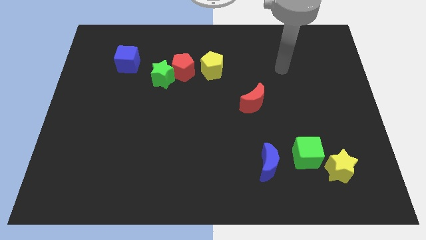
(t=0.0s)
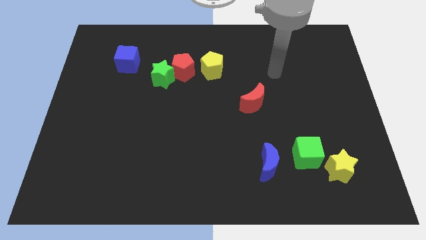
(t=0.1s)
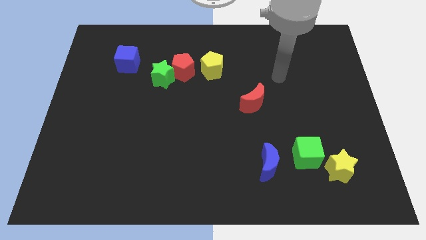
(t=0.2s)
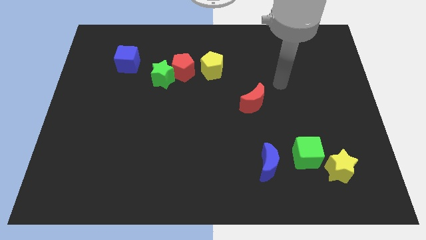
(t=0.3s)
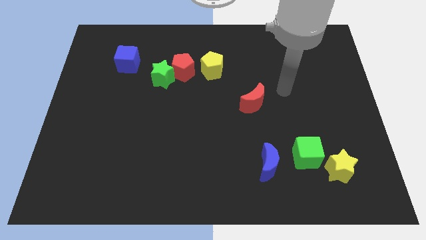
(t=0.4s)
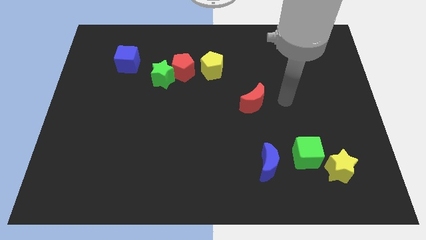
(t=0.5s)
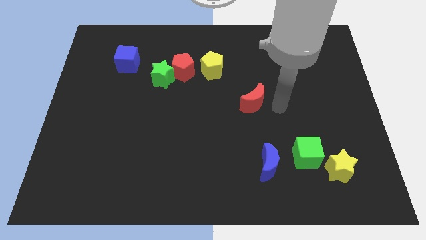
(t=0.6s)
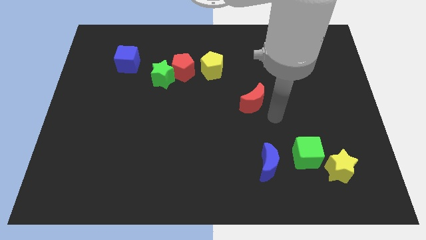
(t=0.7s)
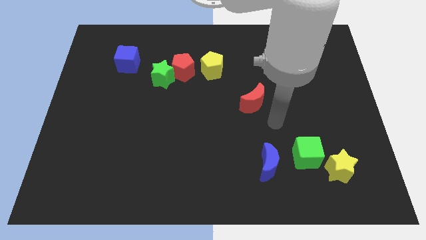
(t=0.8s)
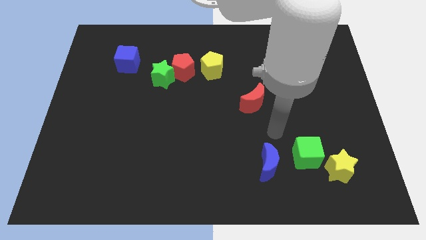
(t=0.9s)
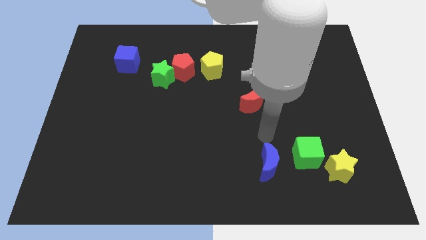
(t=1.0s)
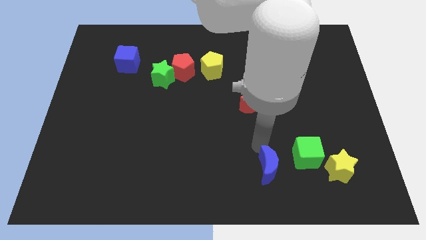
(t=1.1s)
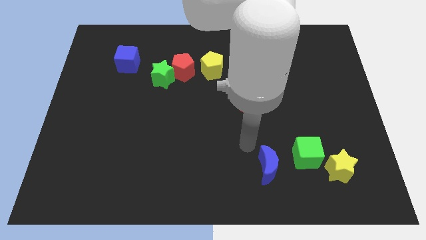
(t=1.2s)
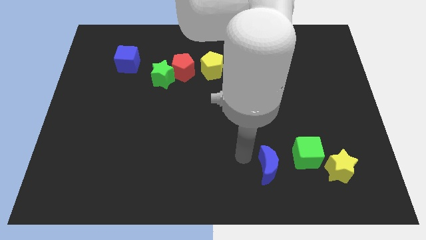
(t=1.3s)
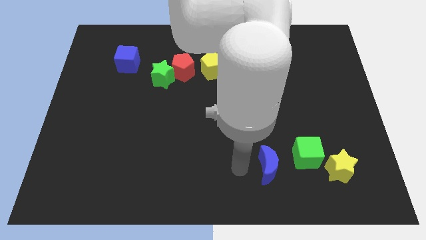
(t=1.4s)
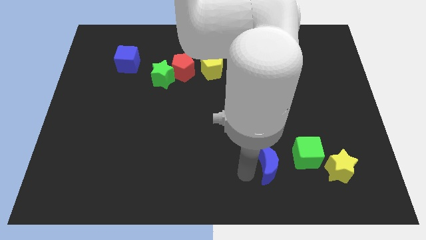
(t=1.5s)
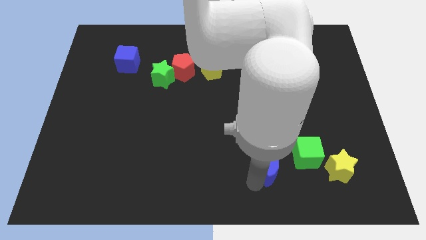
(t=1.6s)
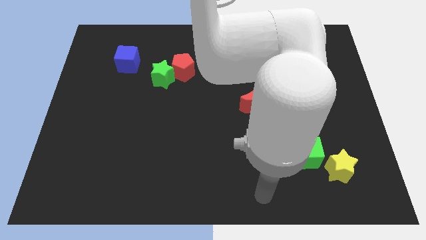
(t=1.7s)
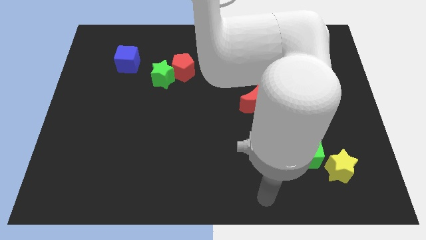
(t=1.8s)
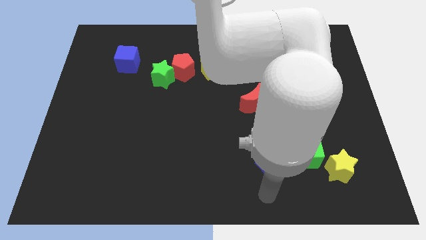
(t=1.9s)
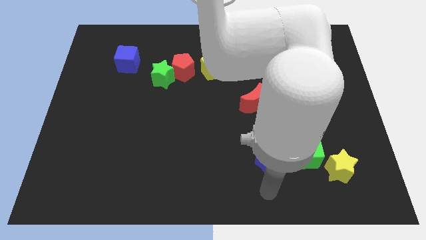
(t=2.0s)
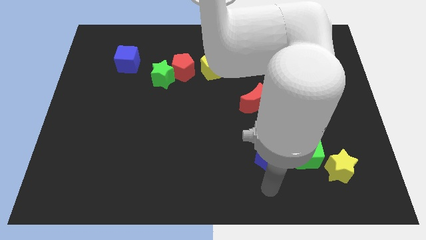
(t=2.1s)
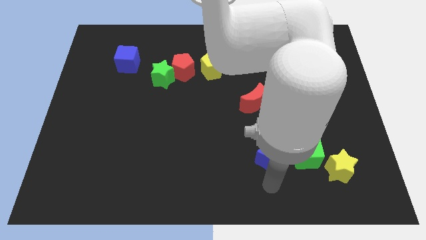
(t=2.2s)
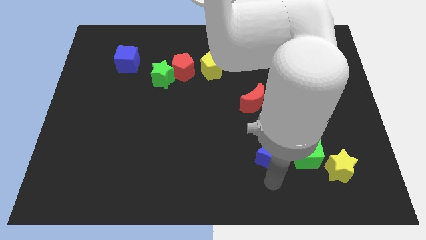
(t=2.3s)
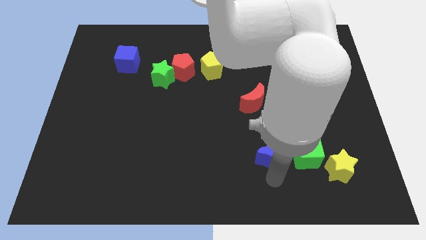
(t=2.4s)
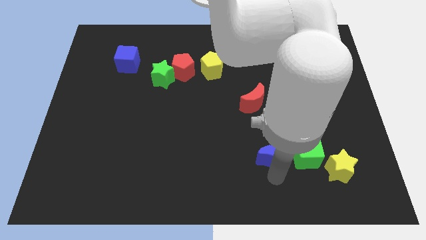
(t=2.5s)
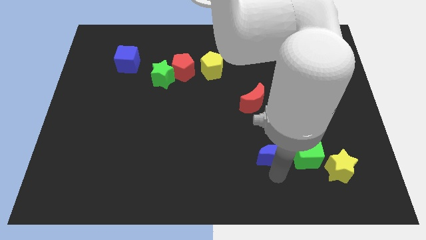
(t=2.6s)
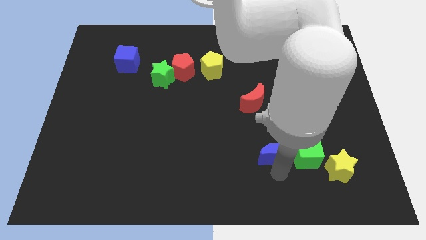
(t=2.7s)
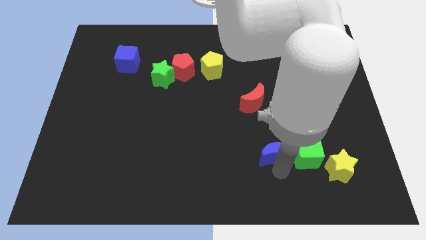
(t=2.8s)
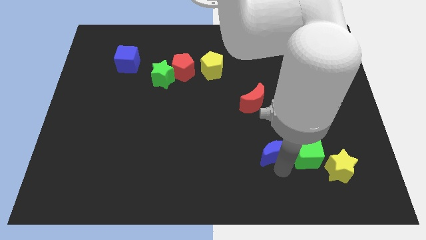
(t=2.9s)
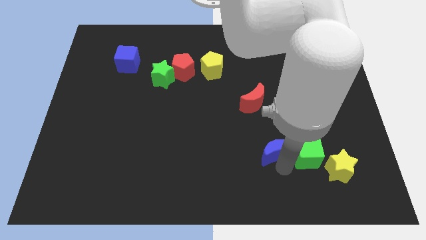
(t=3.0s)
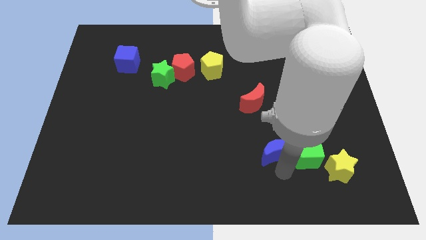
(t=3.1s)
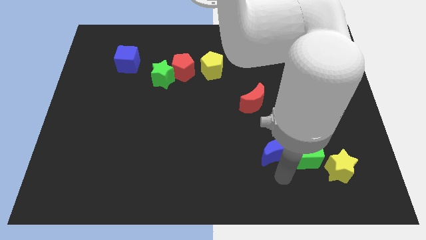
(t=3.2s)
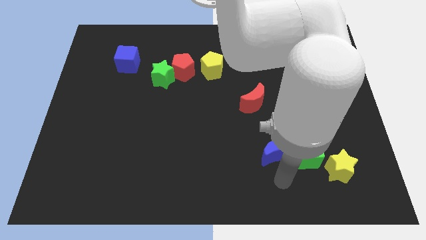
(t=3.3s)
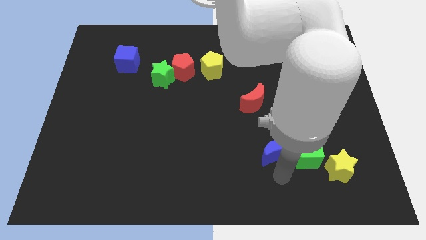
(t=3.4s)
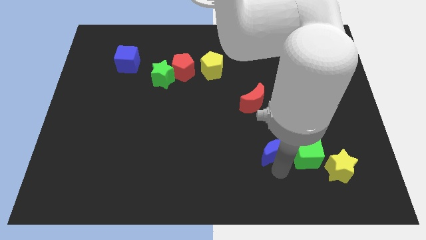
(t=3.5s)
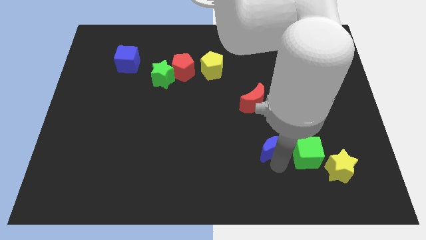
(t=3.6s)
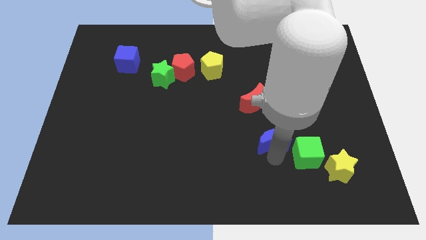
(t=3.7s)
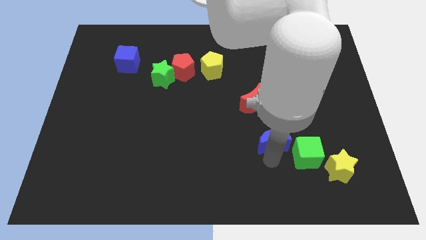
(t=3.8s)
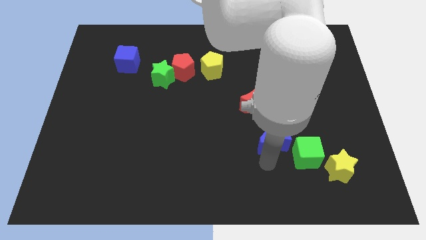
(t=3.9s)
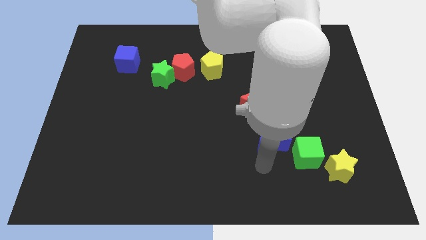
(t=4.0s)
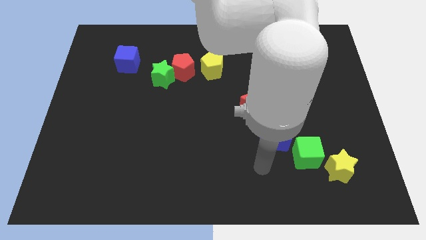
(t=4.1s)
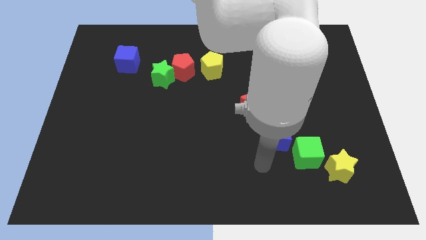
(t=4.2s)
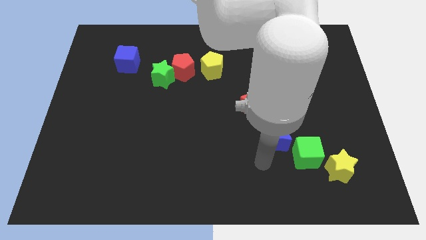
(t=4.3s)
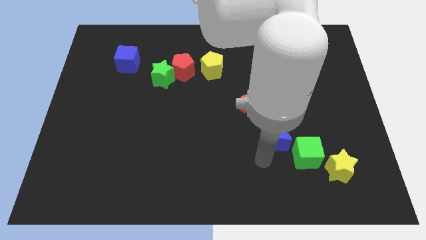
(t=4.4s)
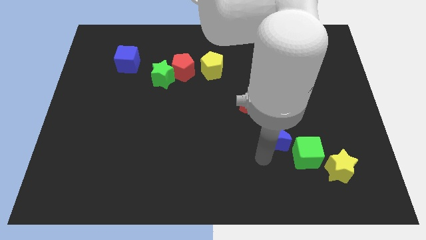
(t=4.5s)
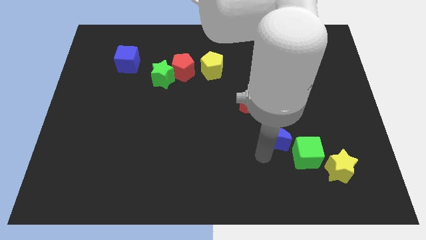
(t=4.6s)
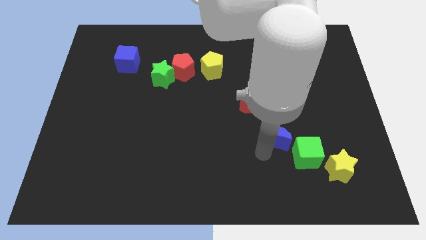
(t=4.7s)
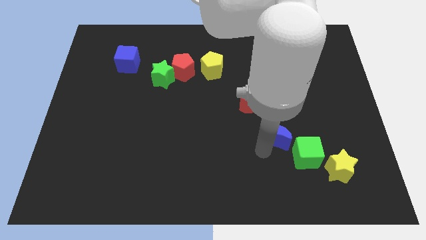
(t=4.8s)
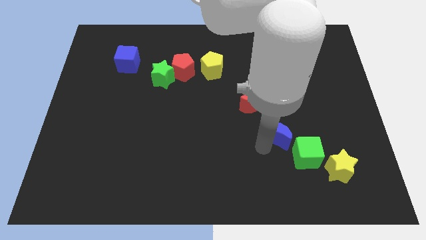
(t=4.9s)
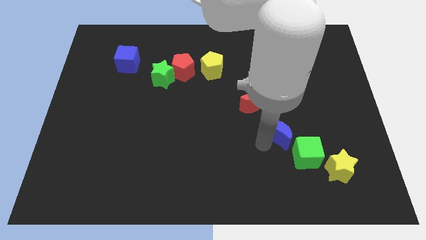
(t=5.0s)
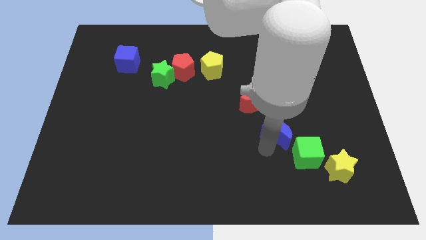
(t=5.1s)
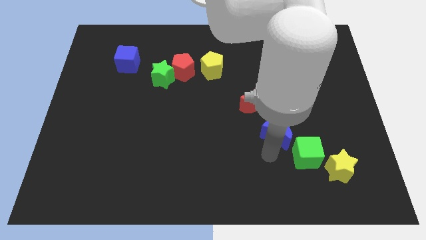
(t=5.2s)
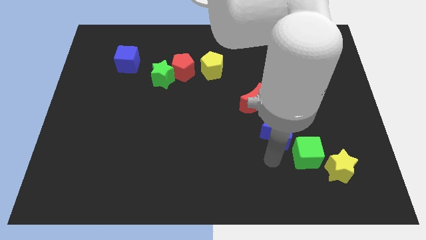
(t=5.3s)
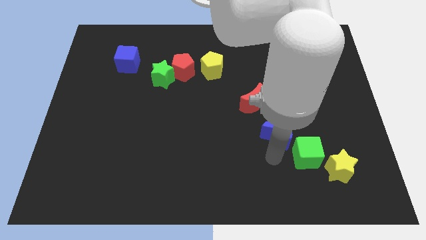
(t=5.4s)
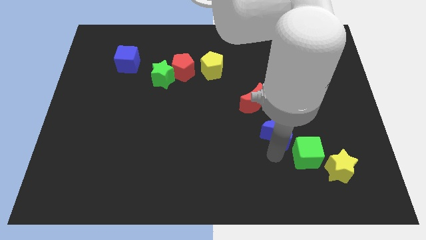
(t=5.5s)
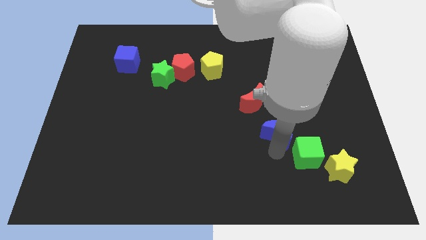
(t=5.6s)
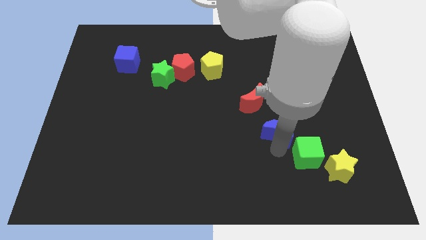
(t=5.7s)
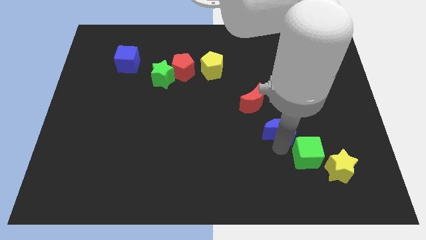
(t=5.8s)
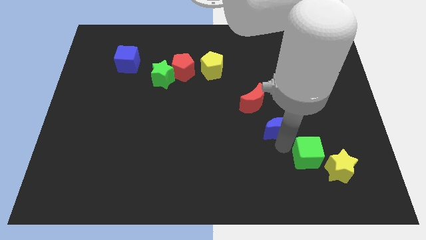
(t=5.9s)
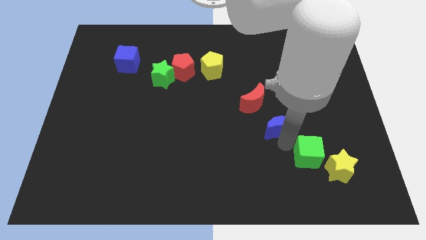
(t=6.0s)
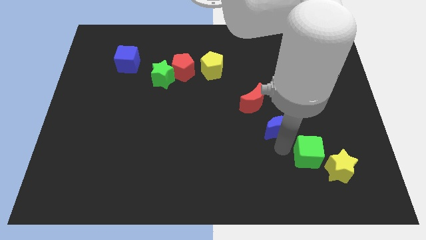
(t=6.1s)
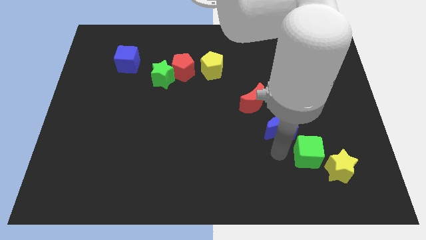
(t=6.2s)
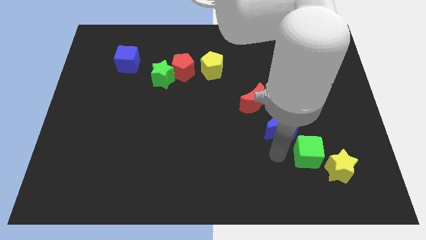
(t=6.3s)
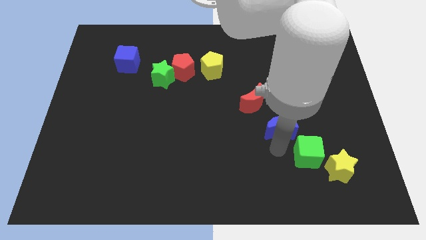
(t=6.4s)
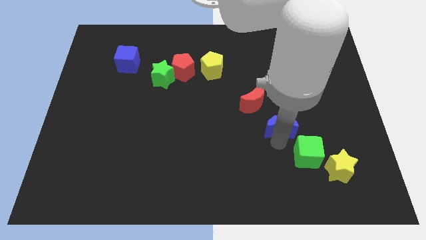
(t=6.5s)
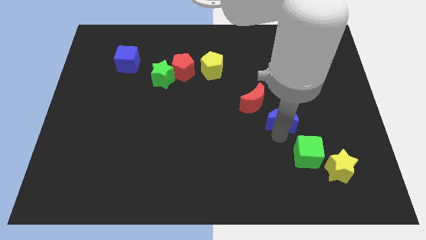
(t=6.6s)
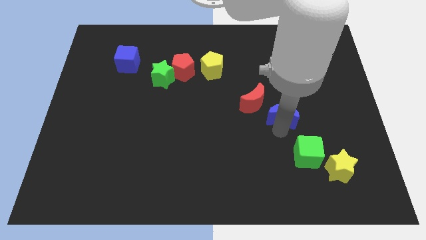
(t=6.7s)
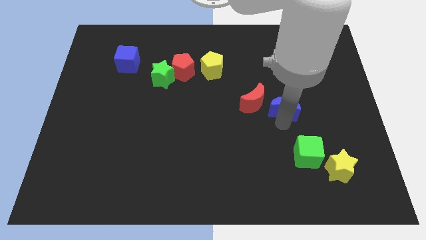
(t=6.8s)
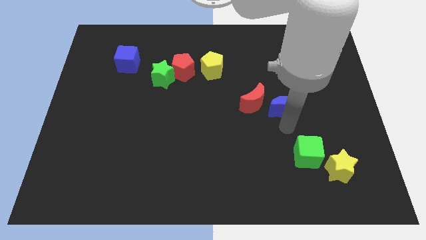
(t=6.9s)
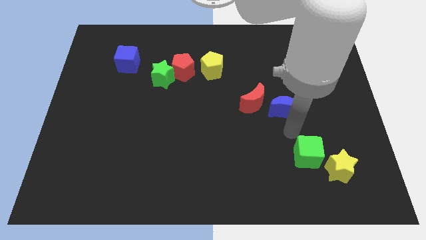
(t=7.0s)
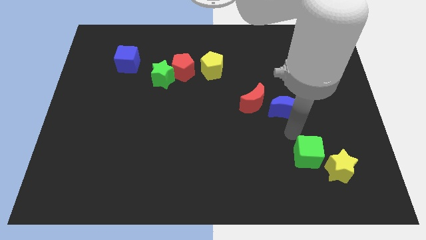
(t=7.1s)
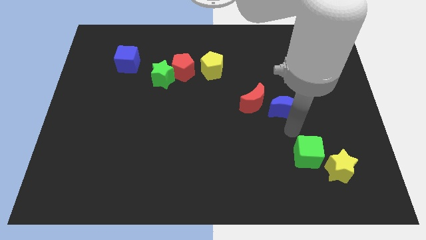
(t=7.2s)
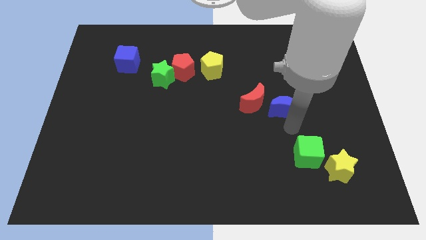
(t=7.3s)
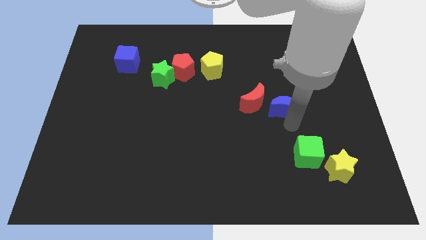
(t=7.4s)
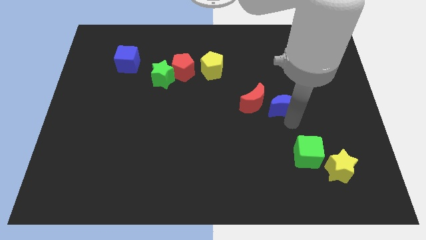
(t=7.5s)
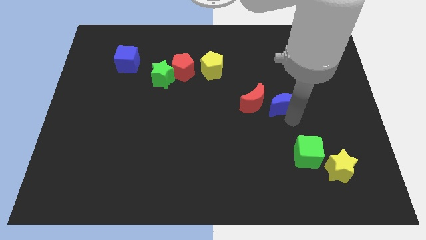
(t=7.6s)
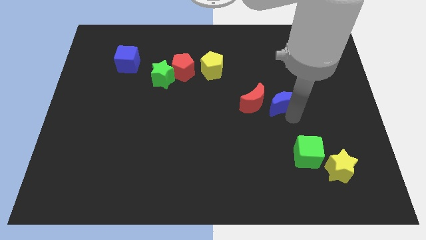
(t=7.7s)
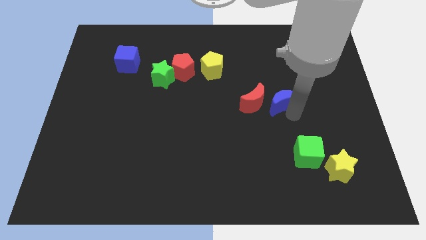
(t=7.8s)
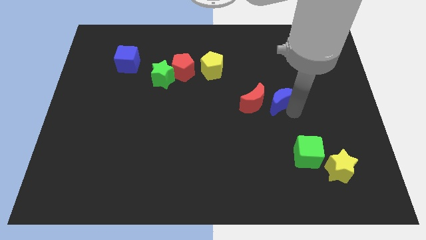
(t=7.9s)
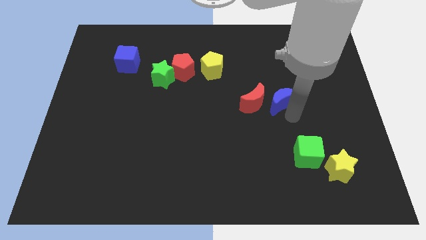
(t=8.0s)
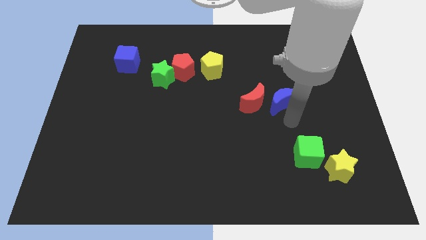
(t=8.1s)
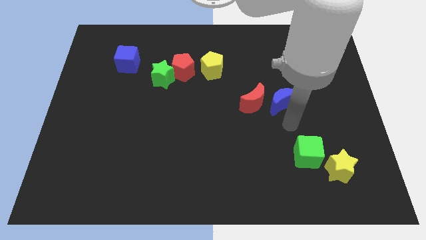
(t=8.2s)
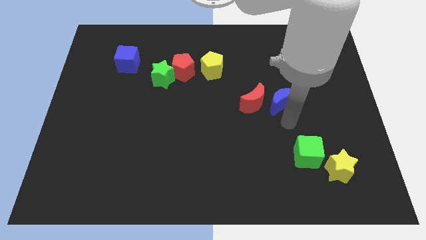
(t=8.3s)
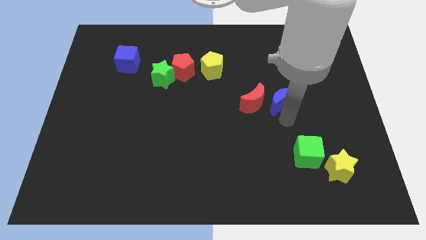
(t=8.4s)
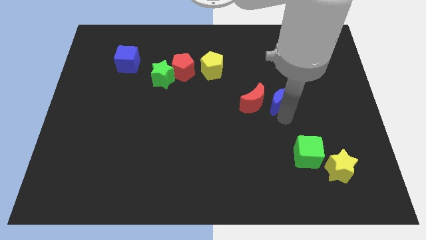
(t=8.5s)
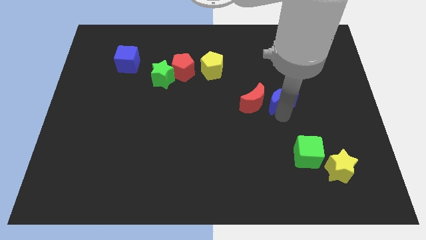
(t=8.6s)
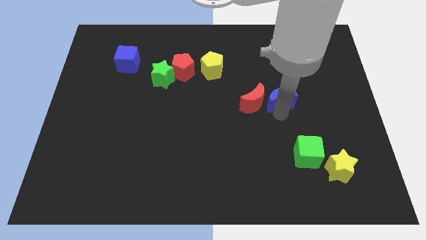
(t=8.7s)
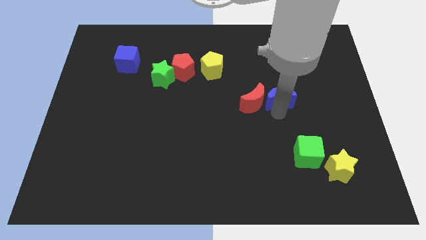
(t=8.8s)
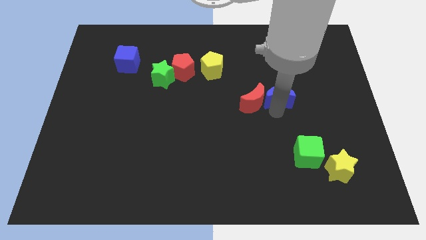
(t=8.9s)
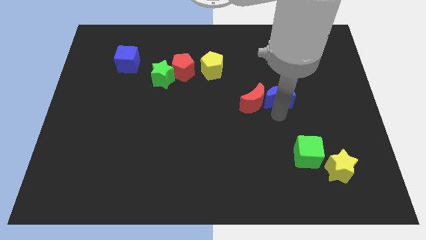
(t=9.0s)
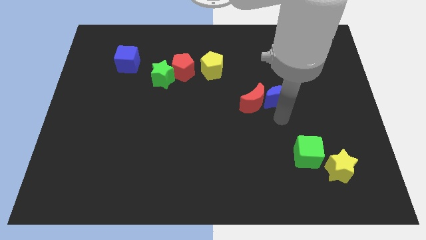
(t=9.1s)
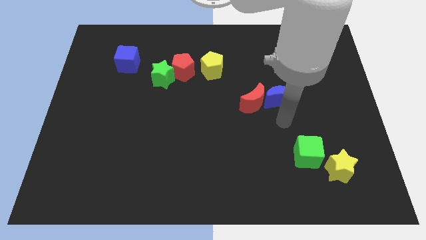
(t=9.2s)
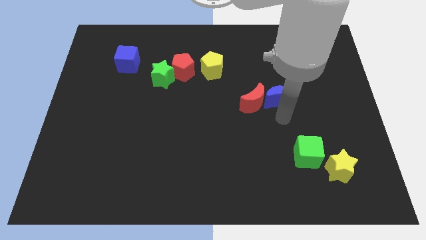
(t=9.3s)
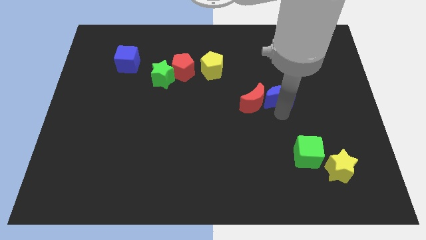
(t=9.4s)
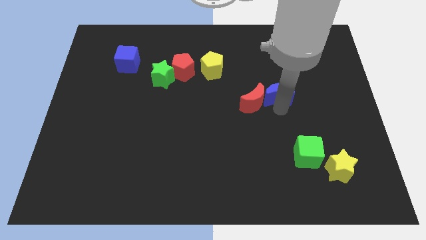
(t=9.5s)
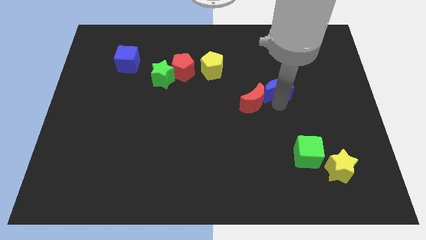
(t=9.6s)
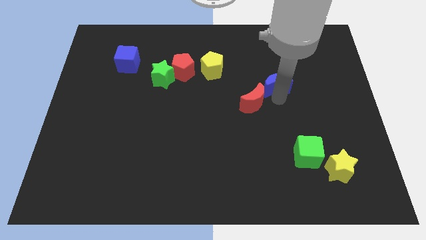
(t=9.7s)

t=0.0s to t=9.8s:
move the blue moon upwards
